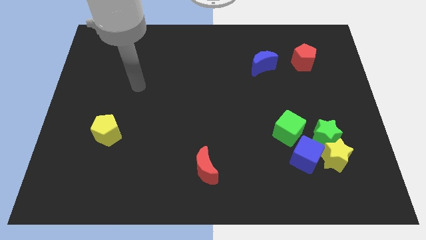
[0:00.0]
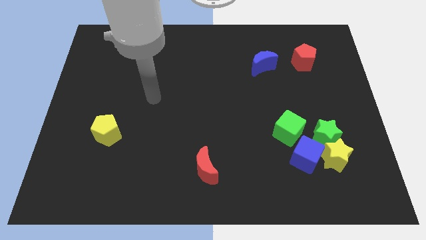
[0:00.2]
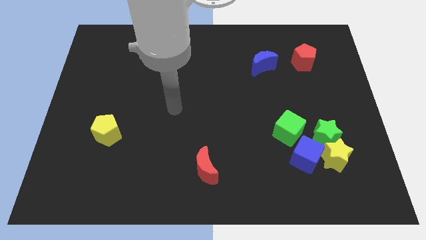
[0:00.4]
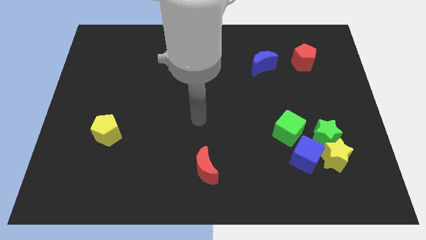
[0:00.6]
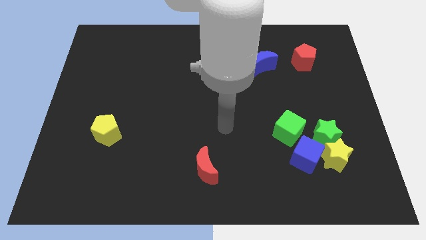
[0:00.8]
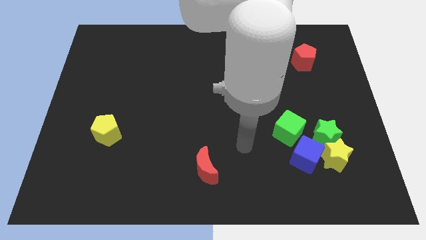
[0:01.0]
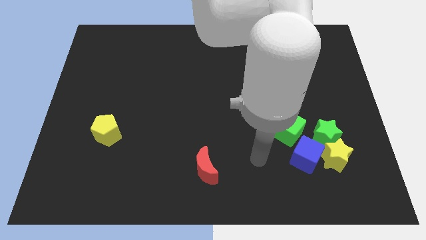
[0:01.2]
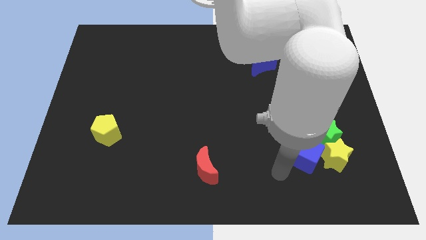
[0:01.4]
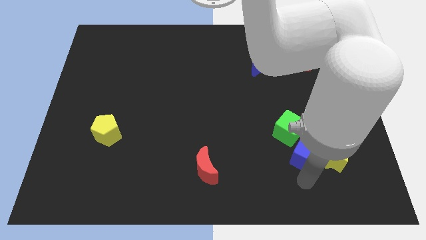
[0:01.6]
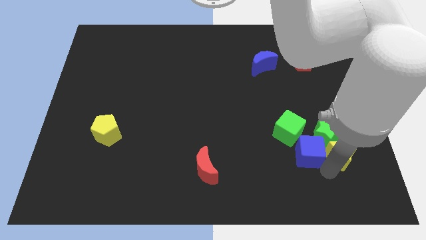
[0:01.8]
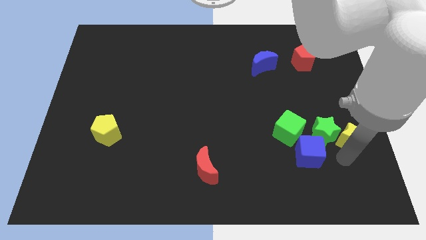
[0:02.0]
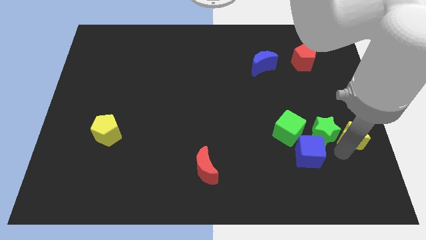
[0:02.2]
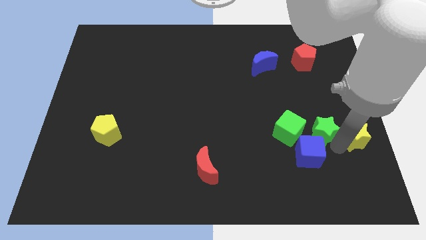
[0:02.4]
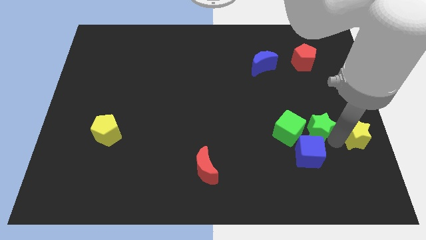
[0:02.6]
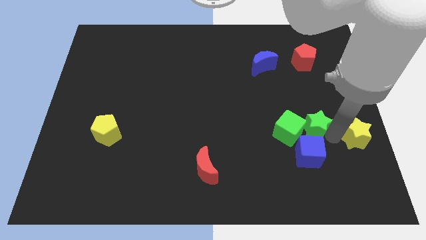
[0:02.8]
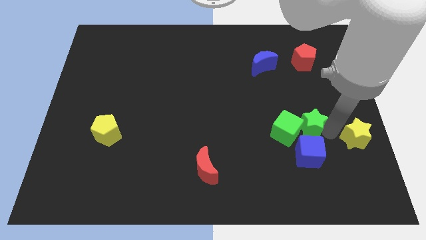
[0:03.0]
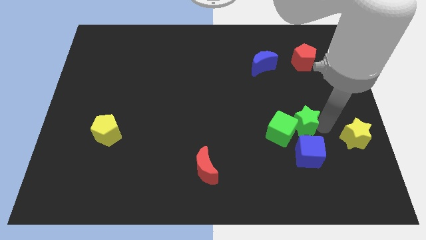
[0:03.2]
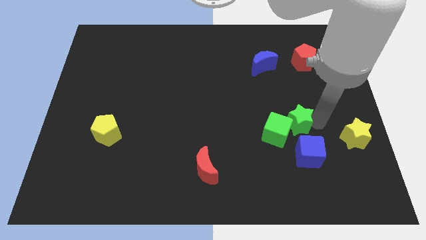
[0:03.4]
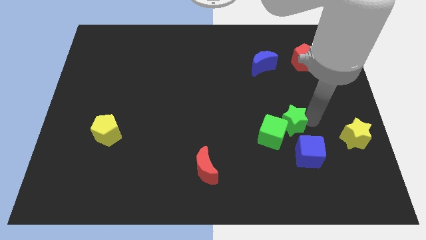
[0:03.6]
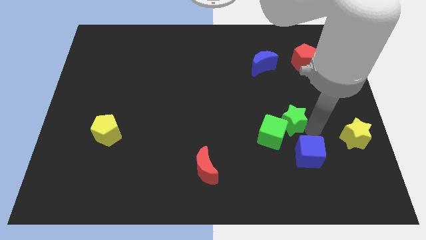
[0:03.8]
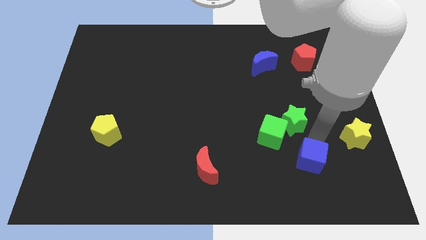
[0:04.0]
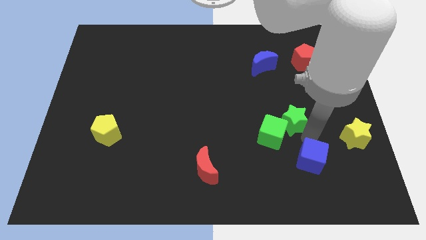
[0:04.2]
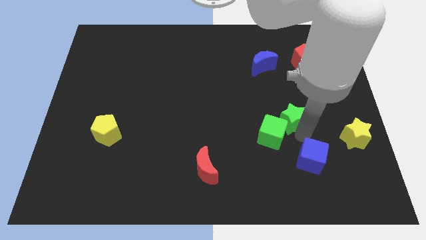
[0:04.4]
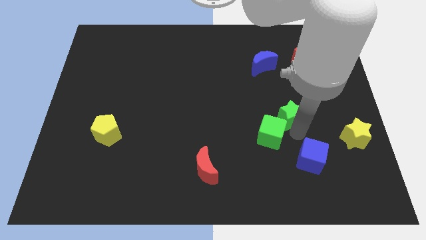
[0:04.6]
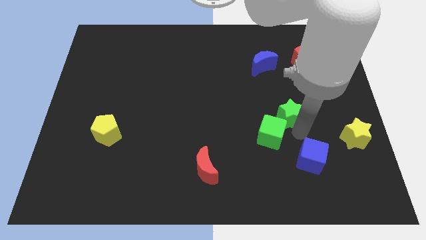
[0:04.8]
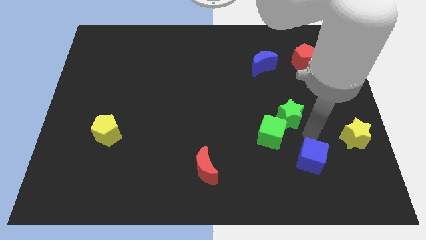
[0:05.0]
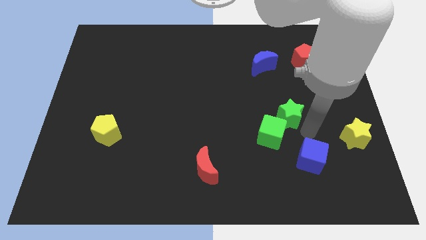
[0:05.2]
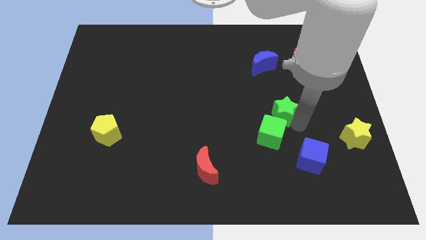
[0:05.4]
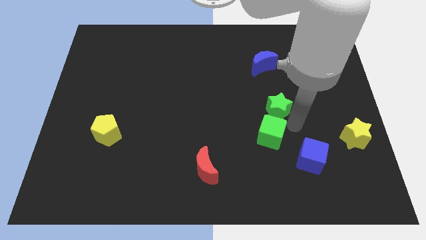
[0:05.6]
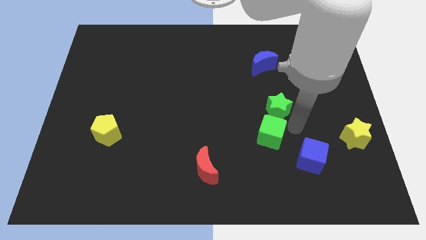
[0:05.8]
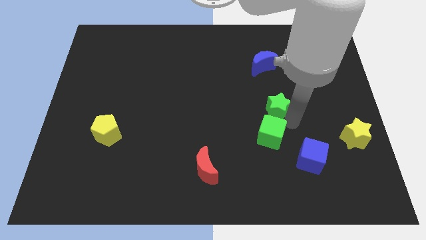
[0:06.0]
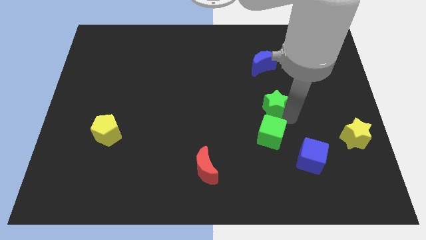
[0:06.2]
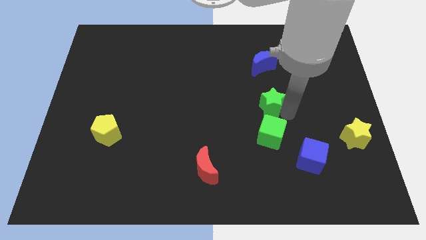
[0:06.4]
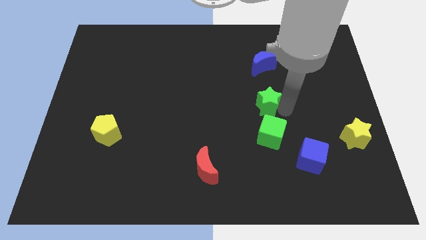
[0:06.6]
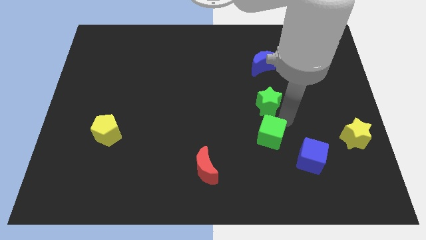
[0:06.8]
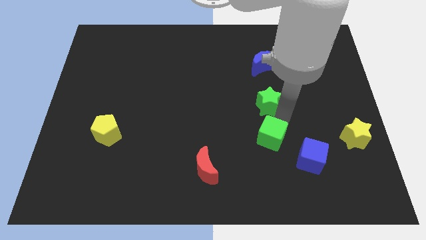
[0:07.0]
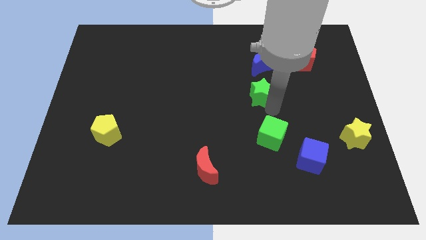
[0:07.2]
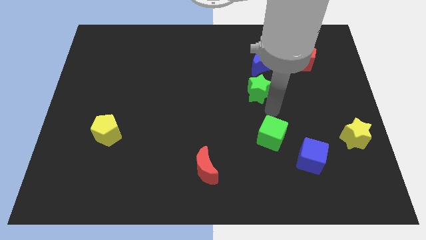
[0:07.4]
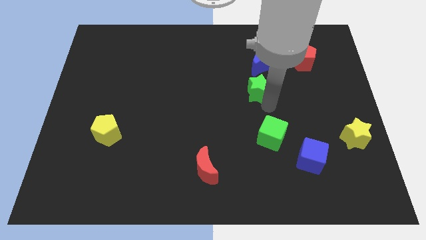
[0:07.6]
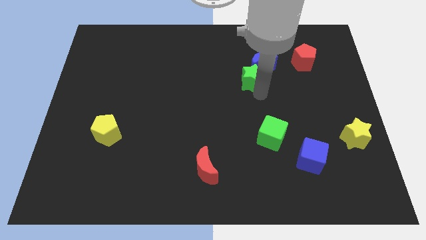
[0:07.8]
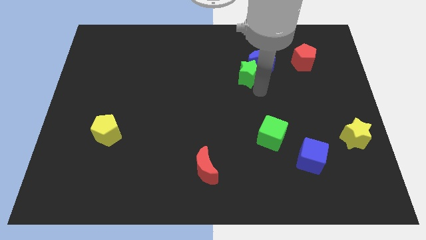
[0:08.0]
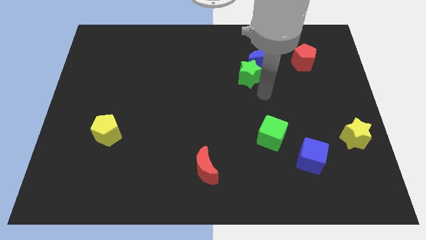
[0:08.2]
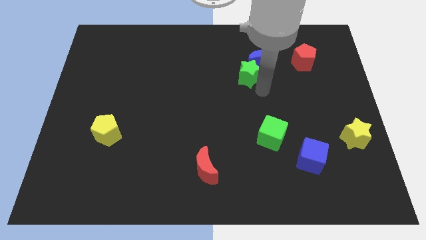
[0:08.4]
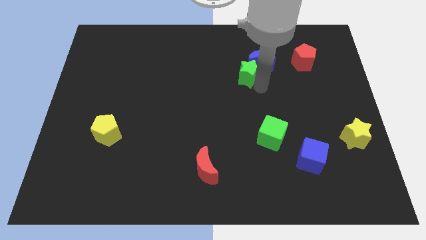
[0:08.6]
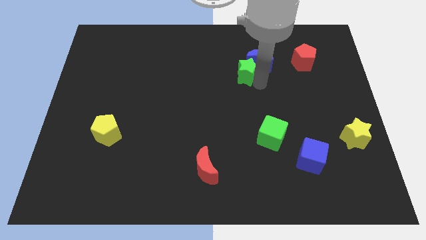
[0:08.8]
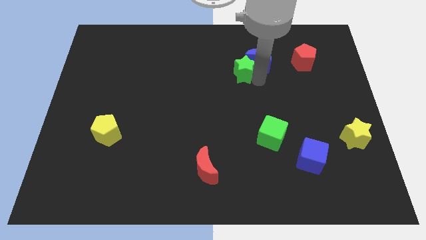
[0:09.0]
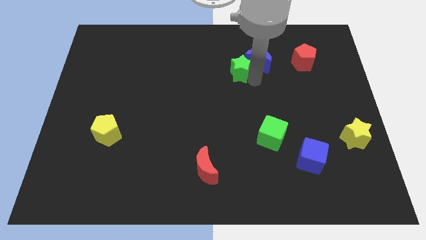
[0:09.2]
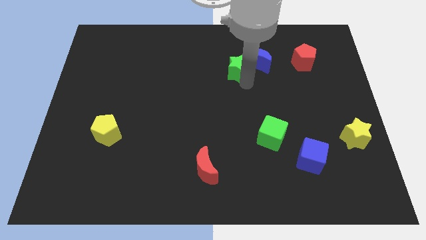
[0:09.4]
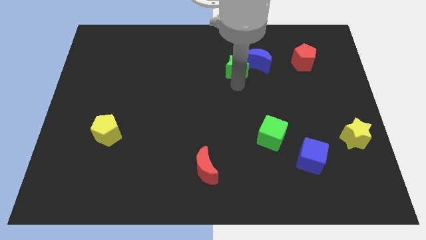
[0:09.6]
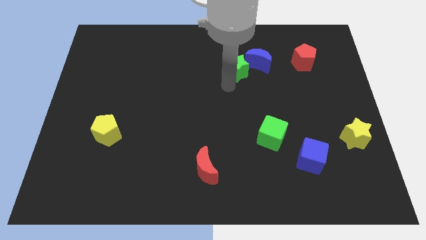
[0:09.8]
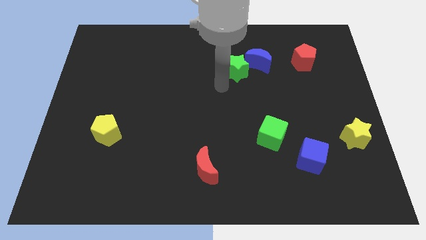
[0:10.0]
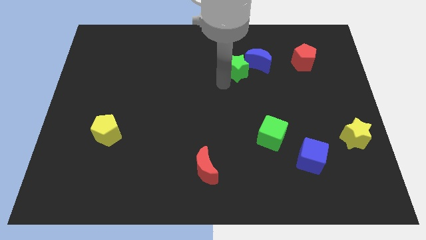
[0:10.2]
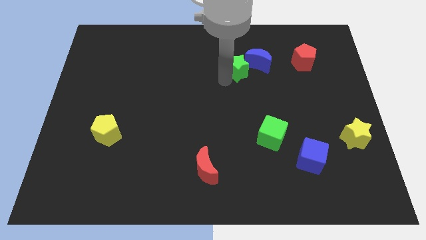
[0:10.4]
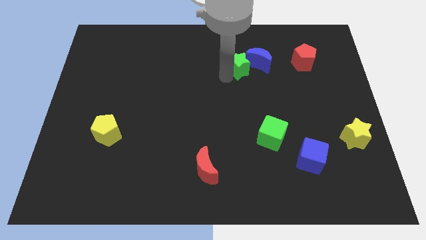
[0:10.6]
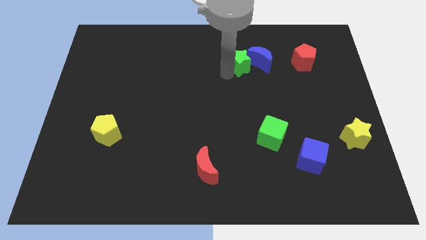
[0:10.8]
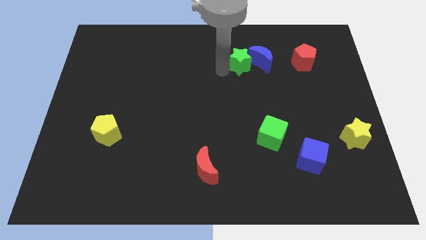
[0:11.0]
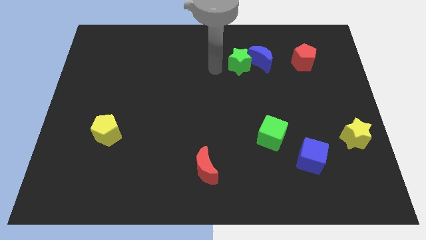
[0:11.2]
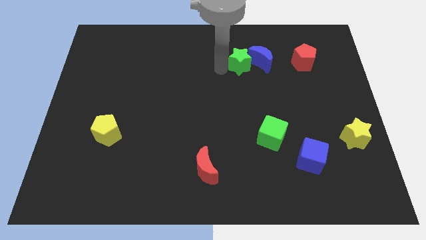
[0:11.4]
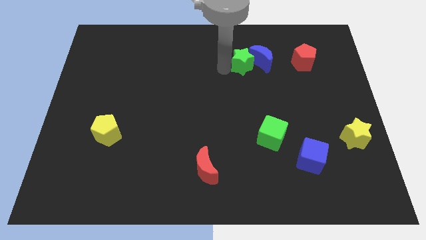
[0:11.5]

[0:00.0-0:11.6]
slide the green star just left of the red pentagon

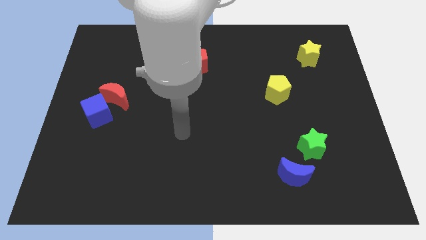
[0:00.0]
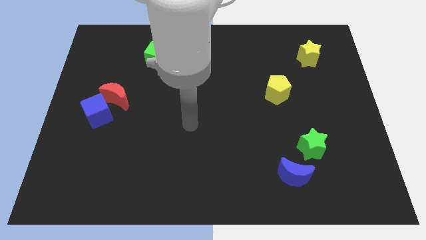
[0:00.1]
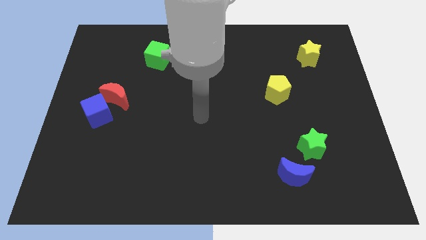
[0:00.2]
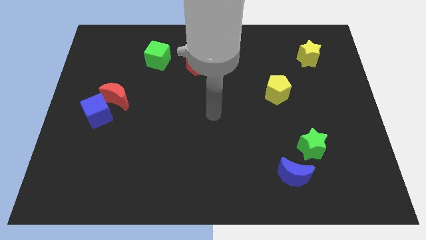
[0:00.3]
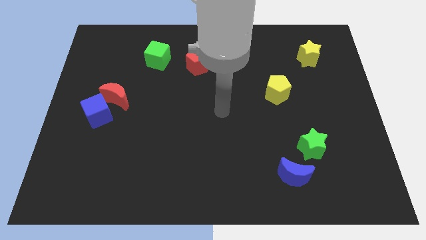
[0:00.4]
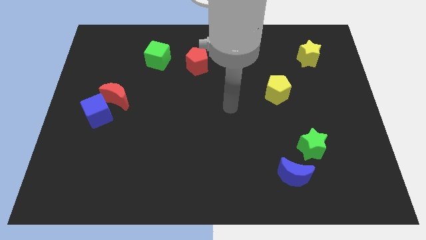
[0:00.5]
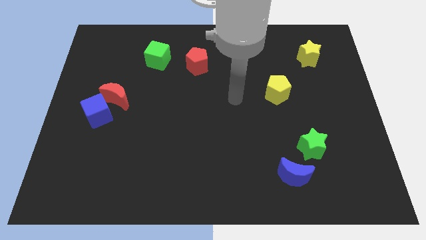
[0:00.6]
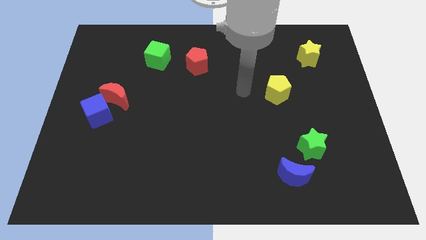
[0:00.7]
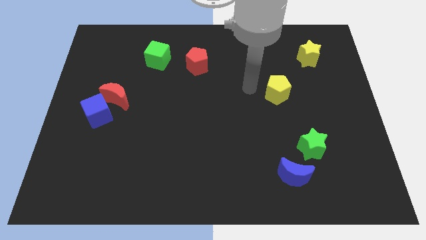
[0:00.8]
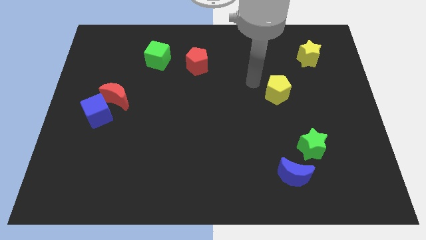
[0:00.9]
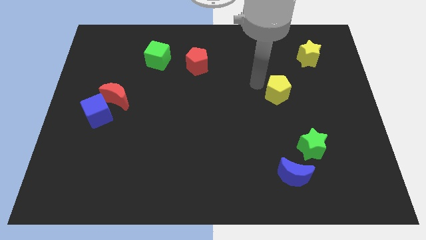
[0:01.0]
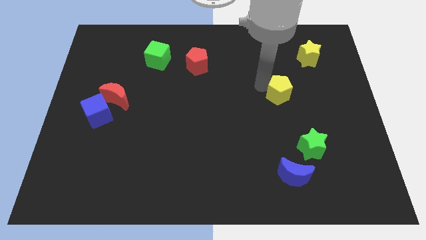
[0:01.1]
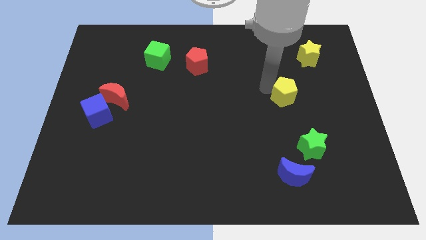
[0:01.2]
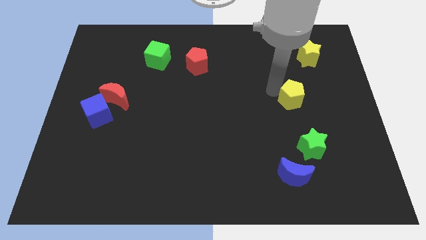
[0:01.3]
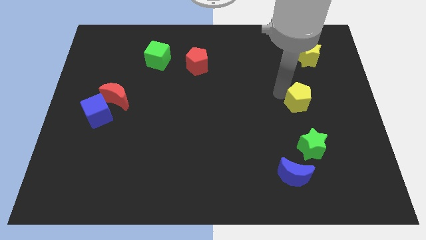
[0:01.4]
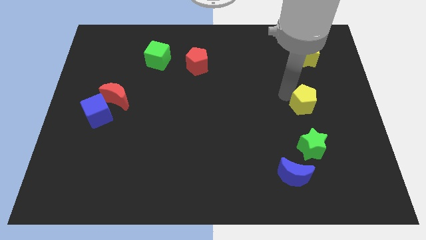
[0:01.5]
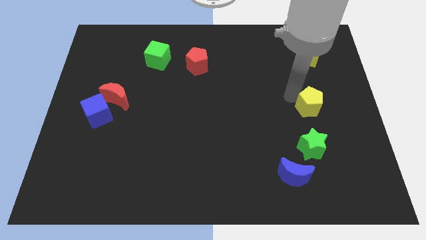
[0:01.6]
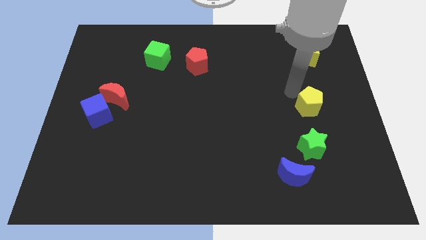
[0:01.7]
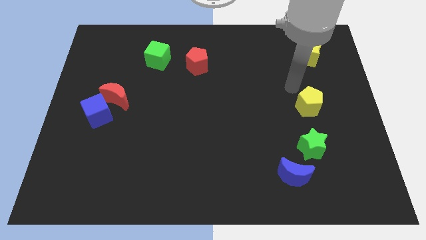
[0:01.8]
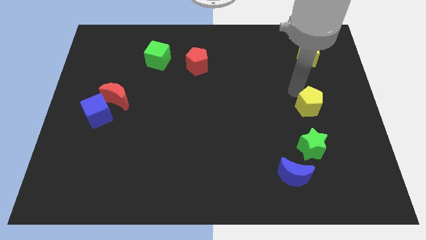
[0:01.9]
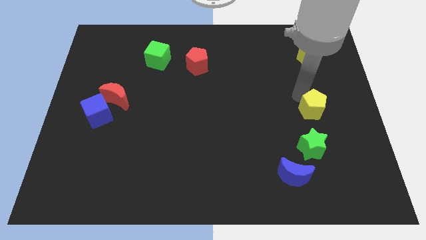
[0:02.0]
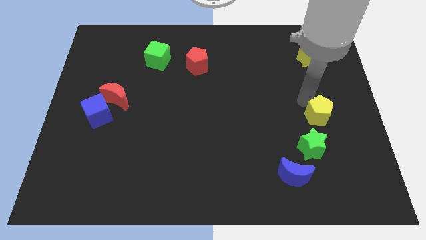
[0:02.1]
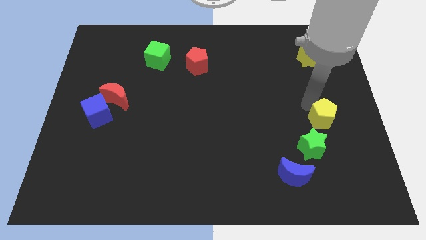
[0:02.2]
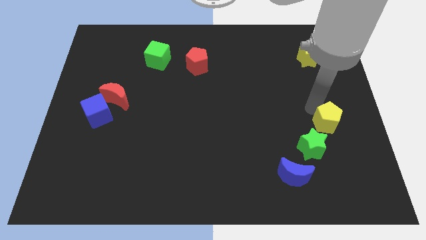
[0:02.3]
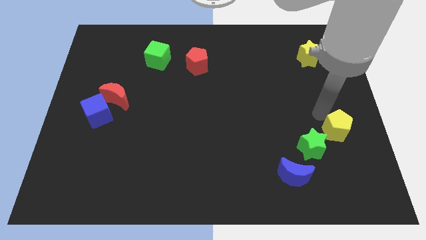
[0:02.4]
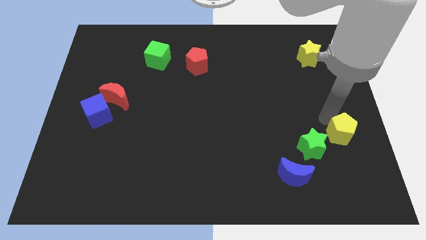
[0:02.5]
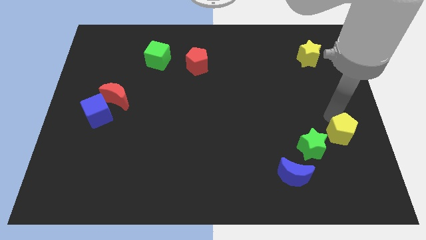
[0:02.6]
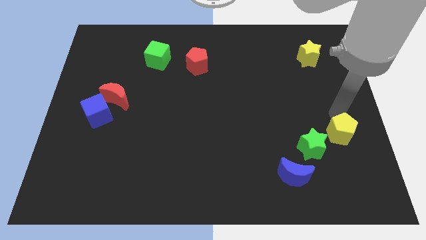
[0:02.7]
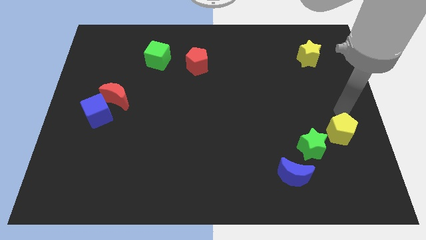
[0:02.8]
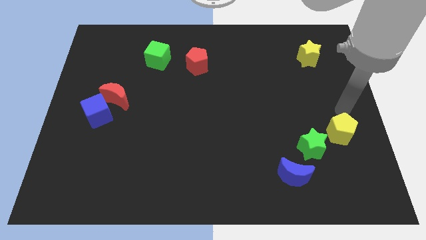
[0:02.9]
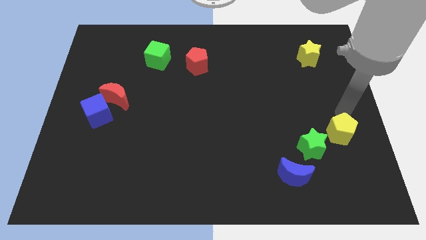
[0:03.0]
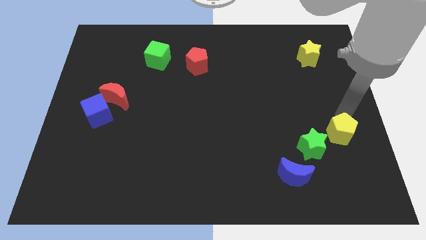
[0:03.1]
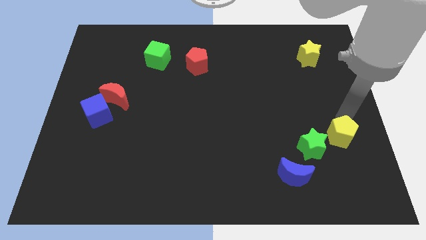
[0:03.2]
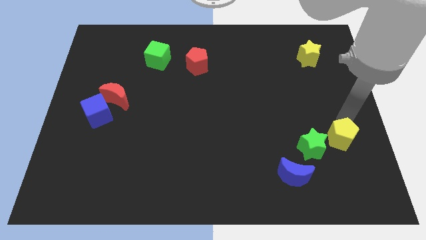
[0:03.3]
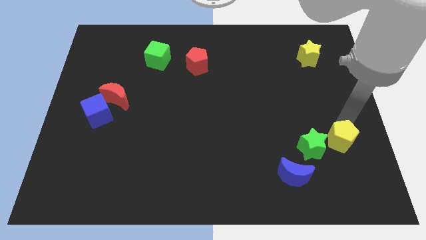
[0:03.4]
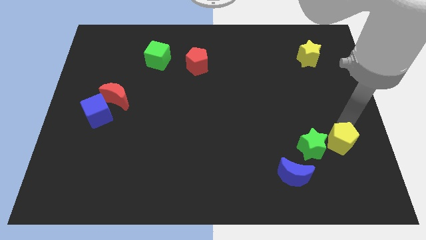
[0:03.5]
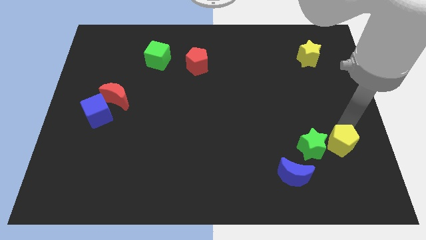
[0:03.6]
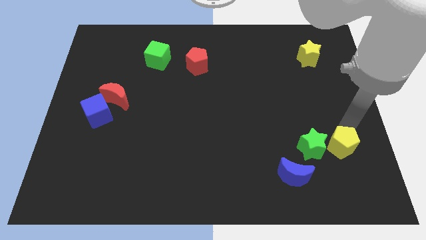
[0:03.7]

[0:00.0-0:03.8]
move the yellow pentagon diagonally down and to the right of the green star
